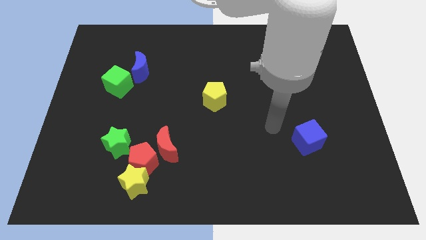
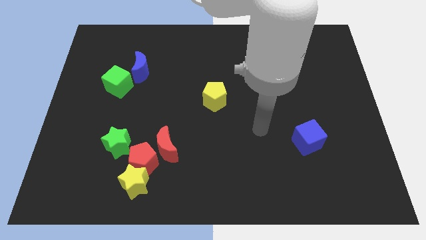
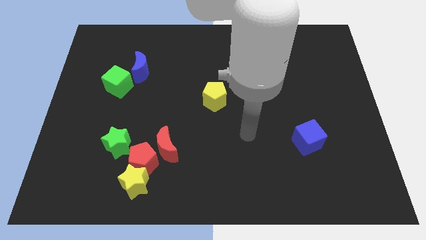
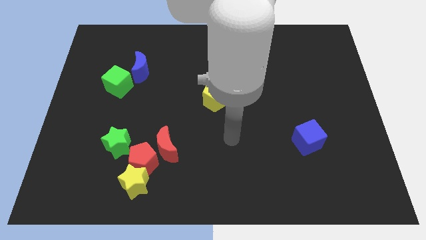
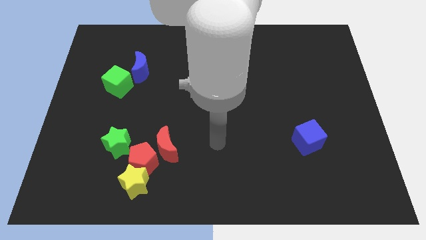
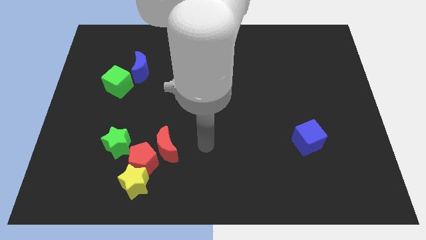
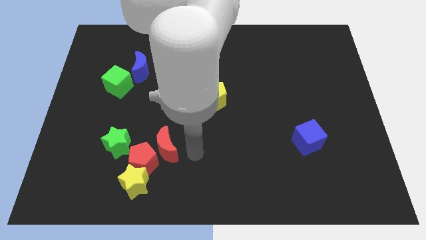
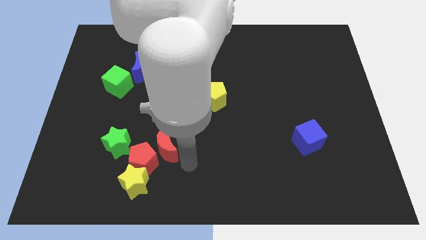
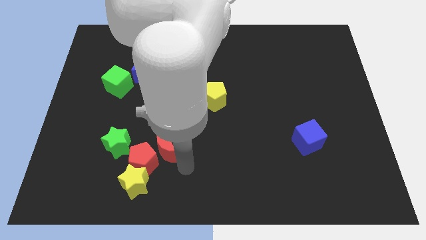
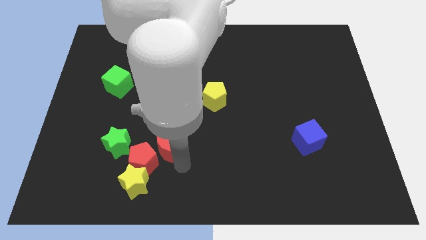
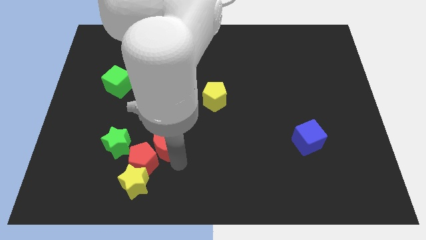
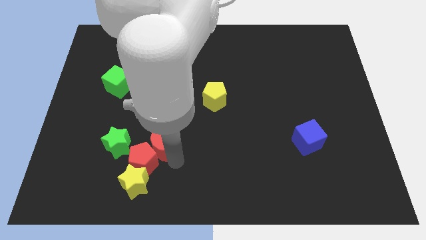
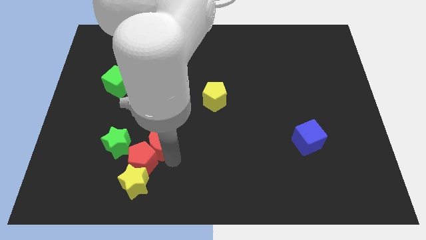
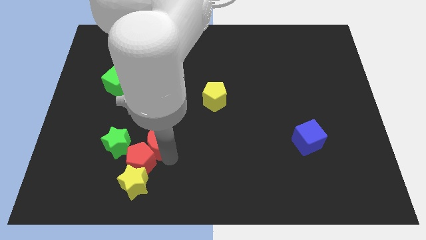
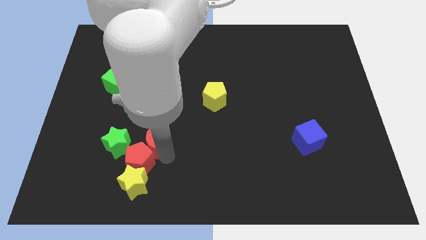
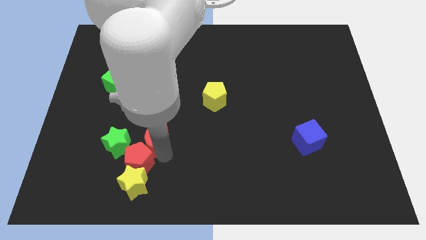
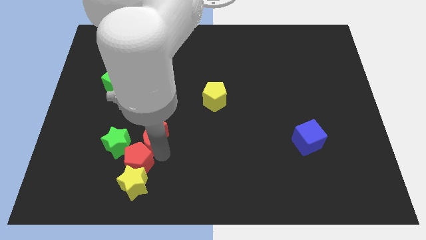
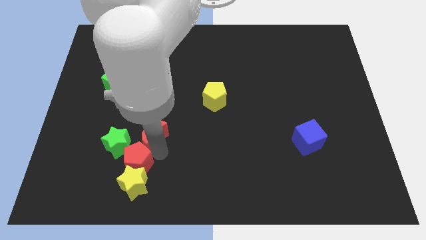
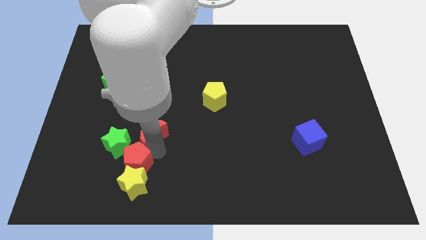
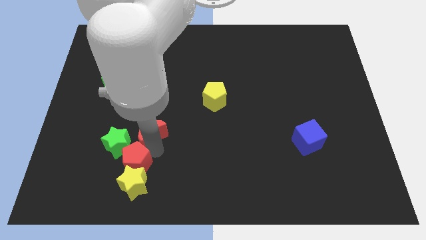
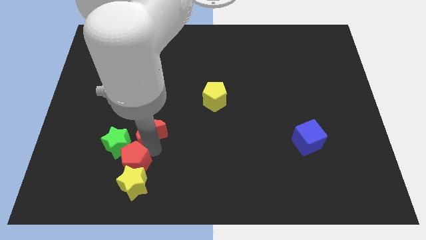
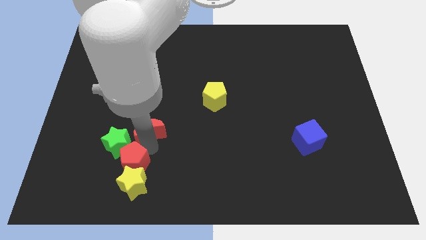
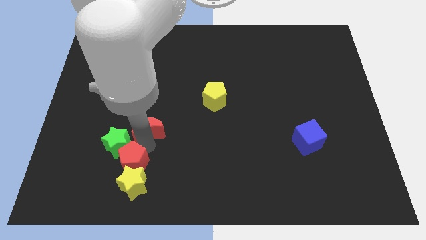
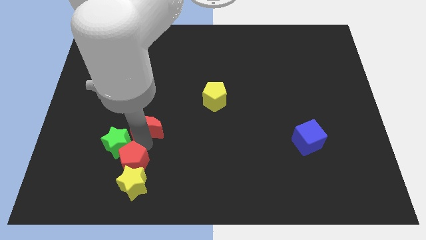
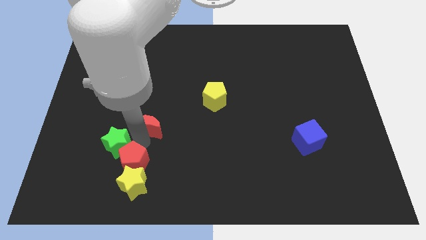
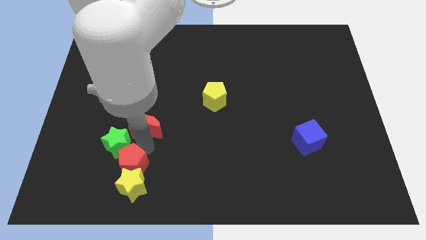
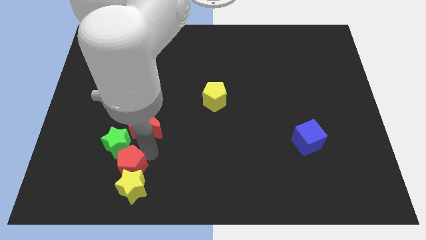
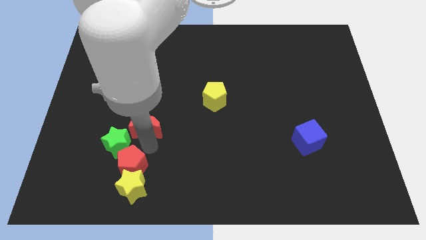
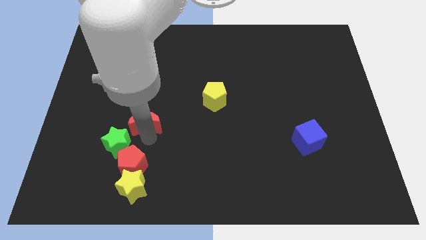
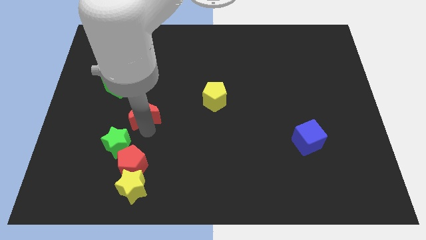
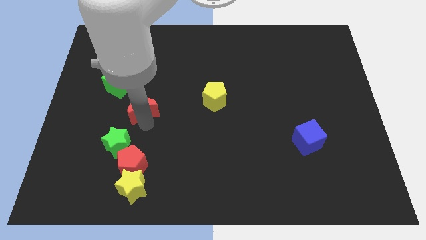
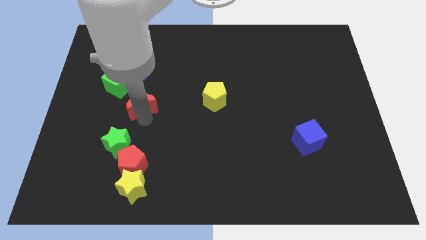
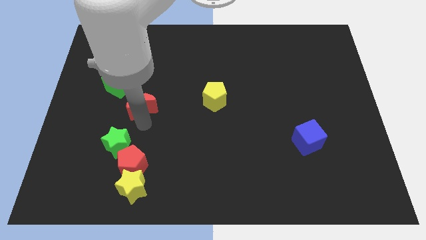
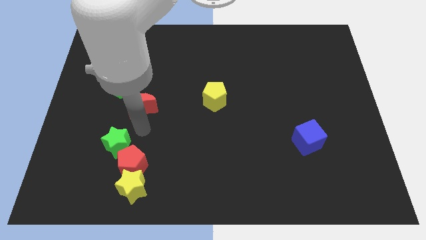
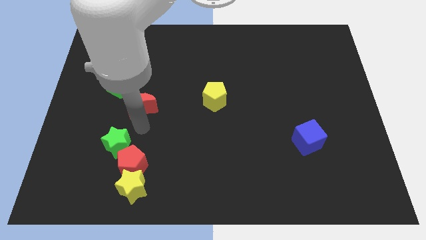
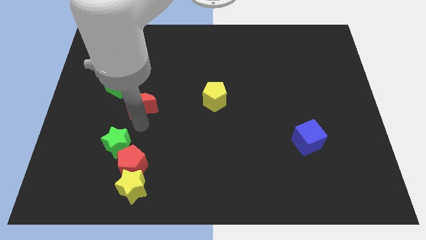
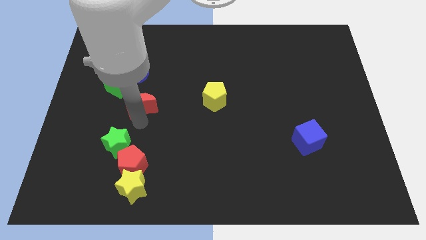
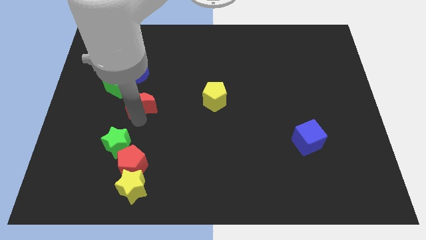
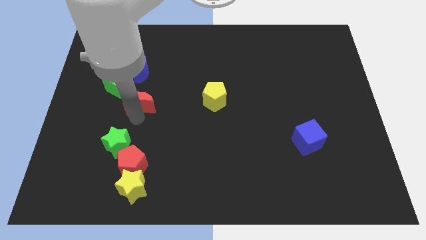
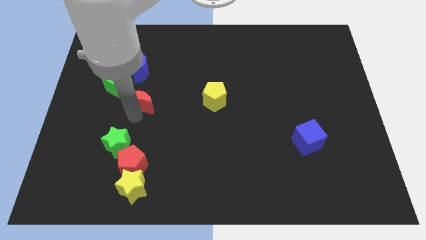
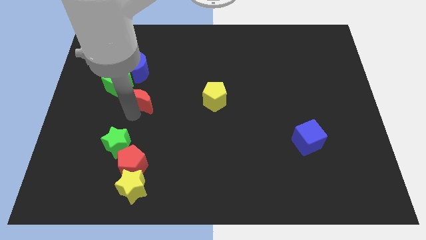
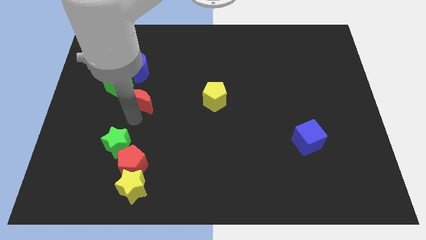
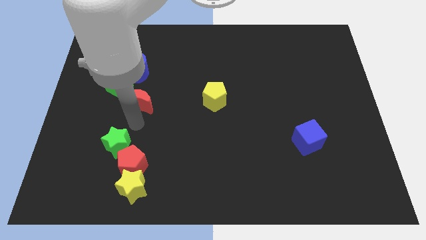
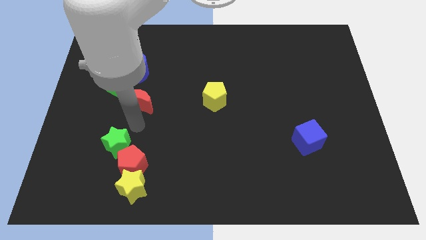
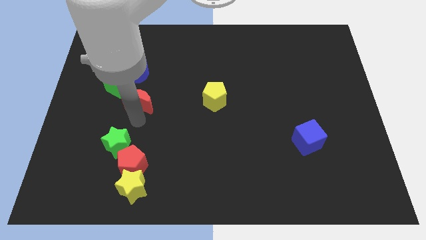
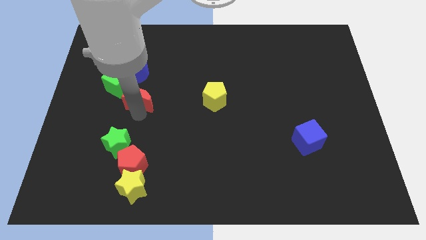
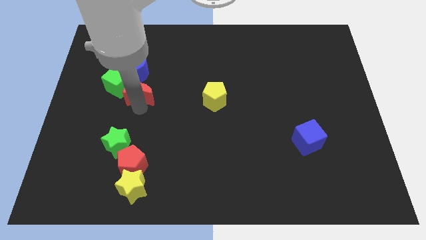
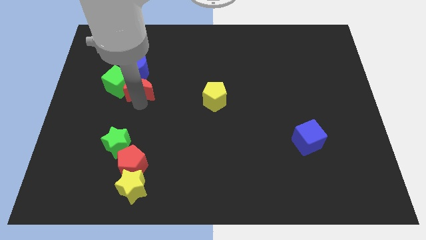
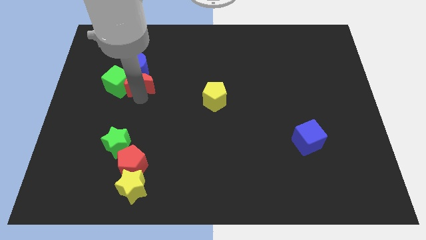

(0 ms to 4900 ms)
slide the red moon to the blue moon

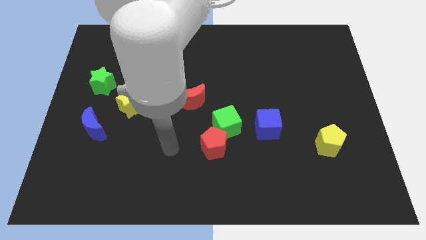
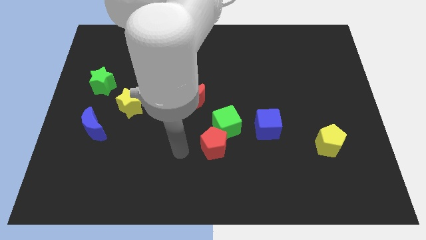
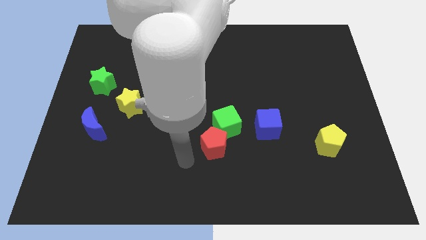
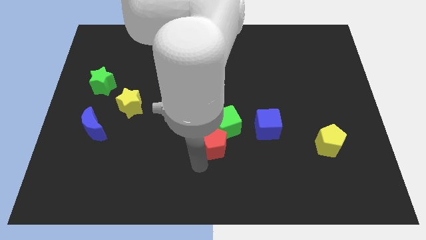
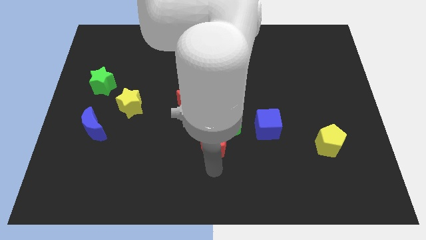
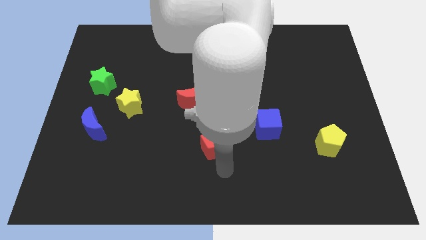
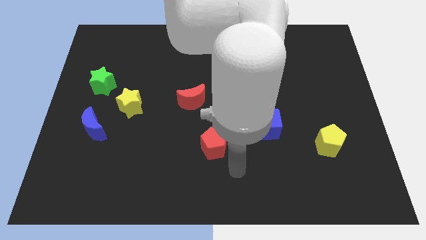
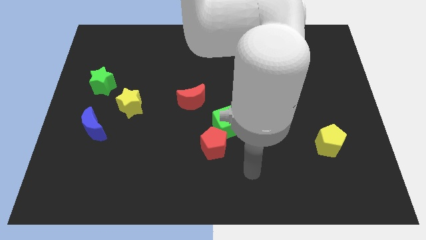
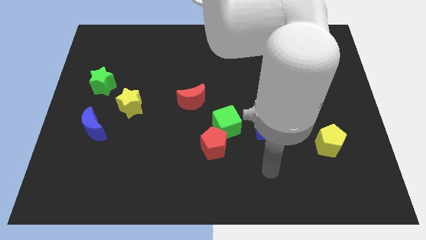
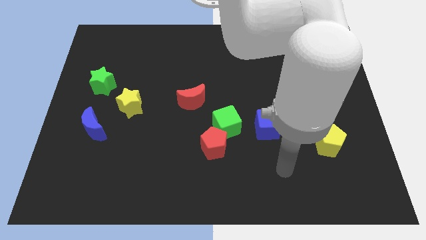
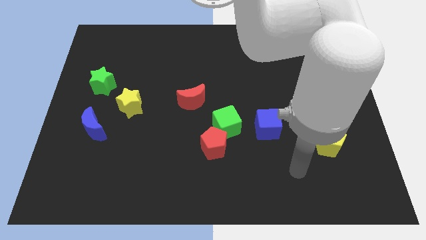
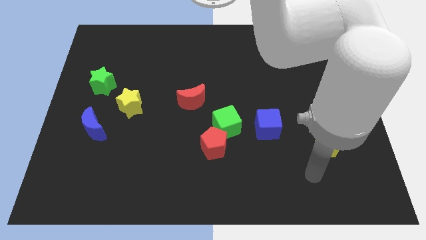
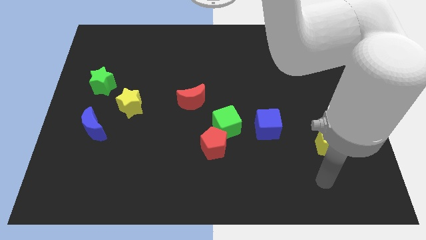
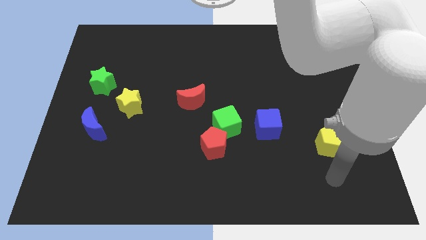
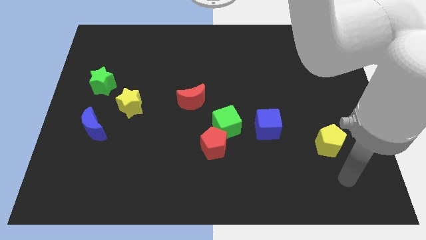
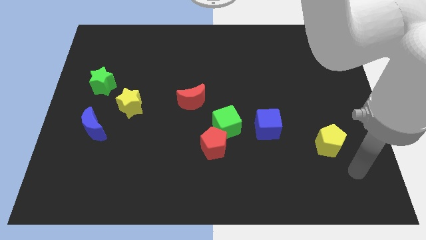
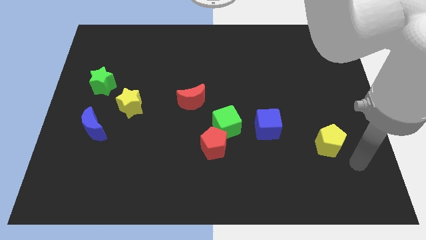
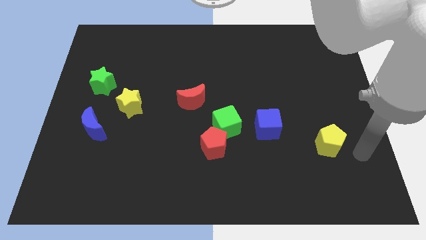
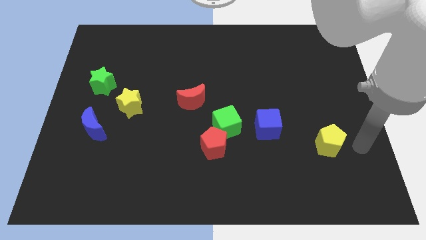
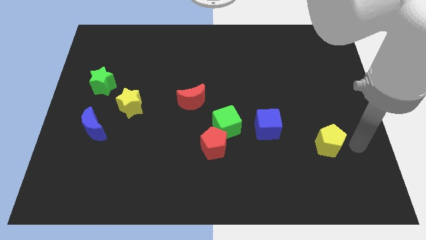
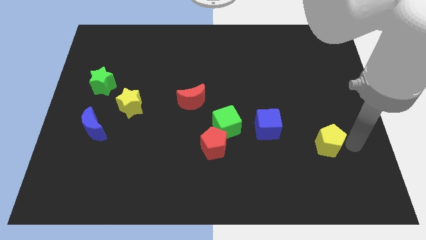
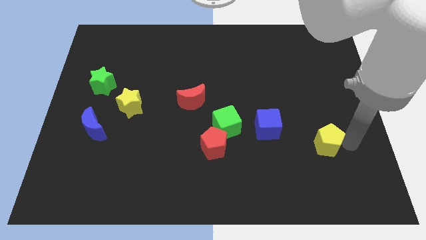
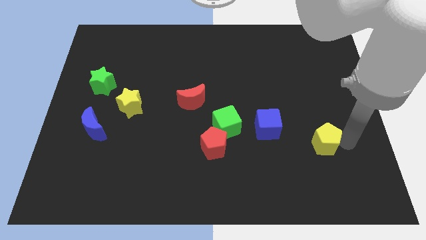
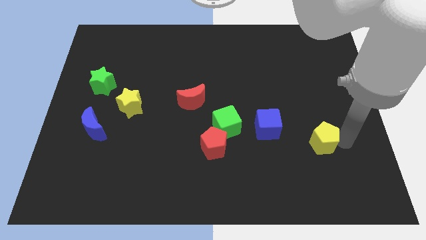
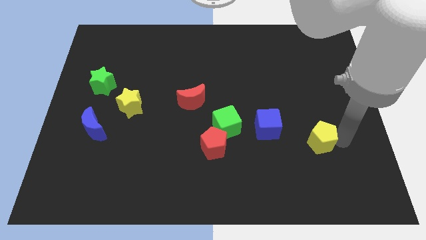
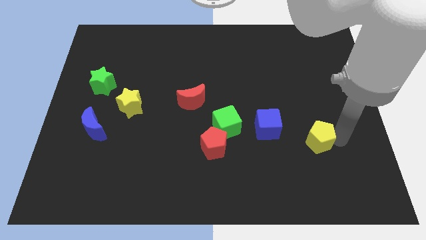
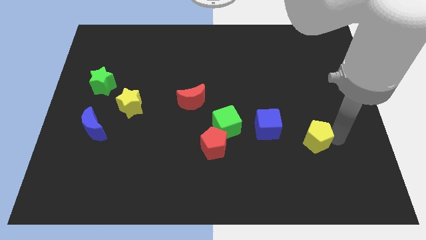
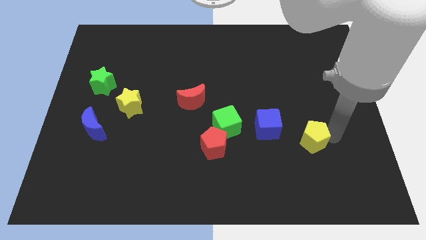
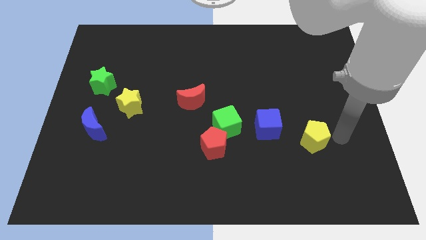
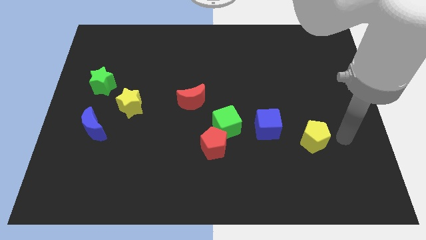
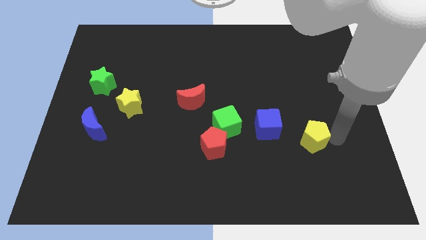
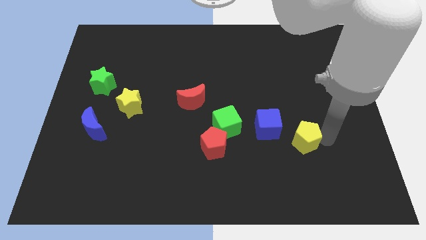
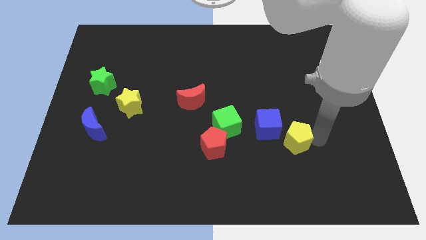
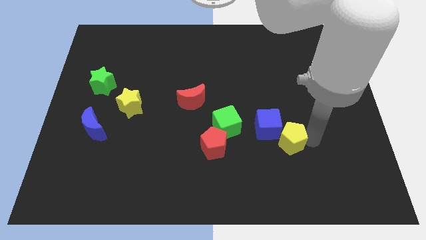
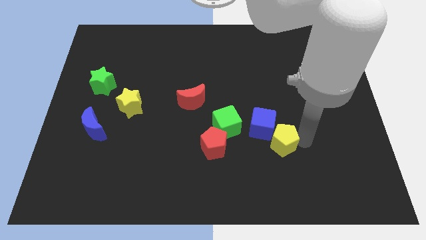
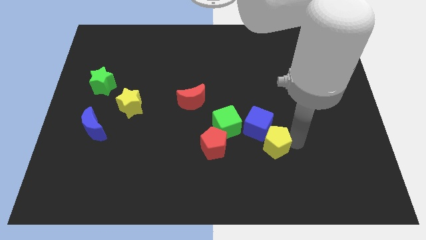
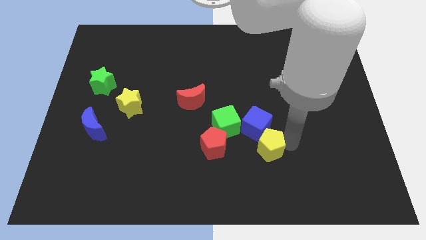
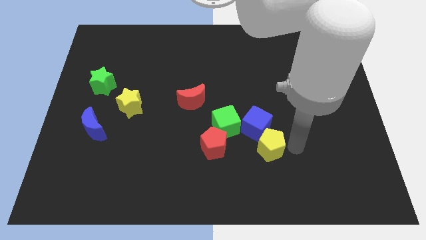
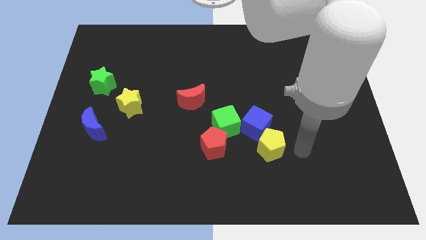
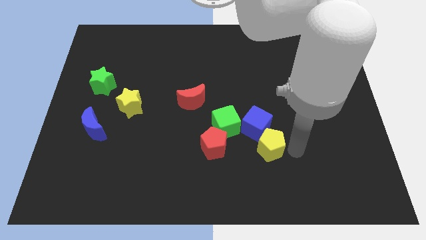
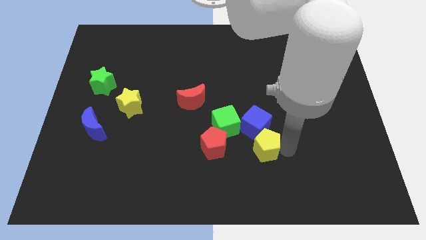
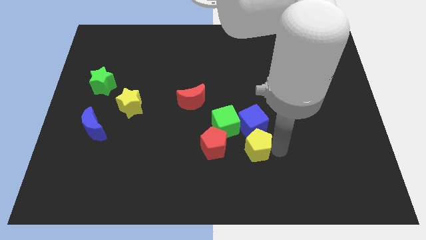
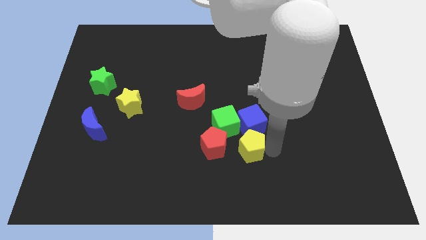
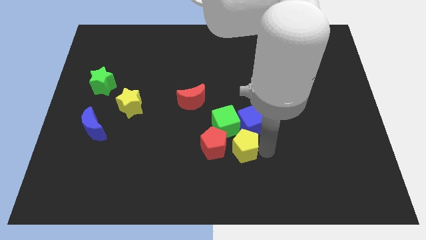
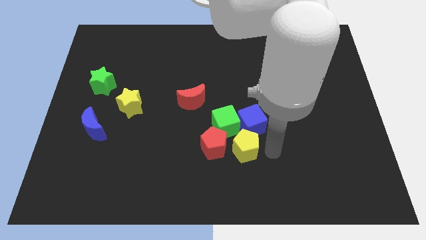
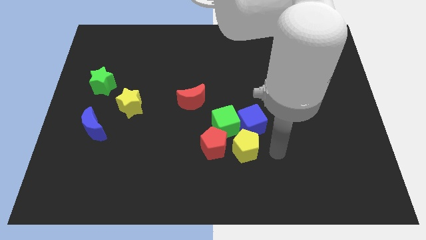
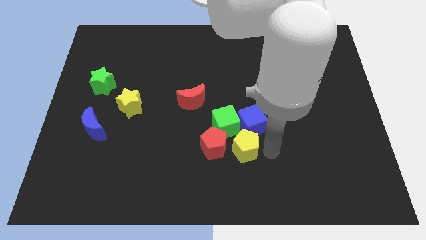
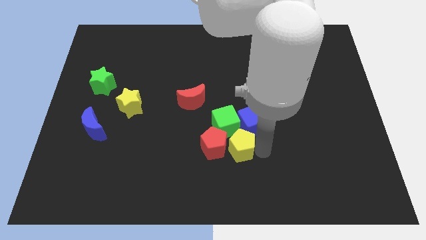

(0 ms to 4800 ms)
slide the yellow pentagon towards the red pentagon
